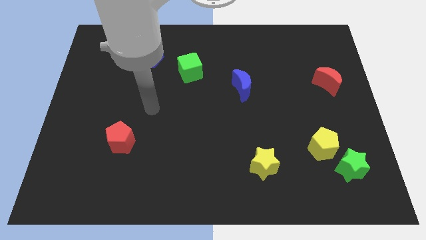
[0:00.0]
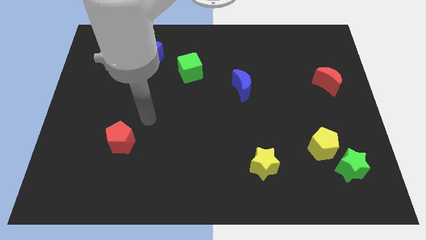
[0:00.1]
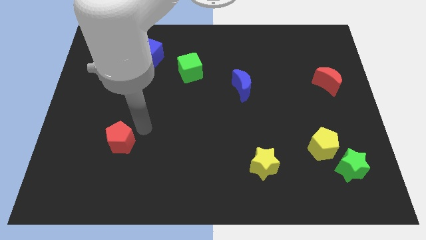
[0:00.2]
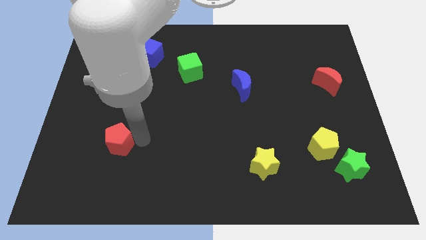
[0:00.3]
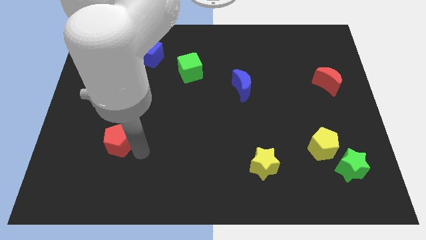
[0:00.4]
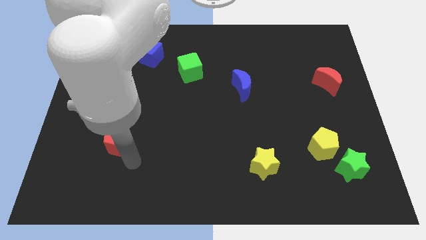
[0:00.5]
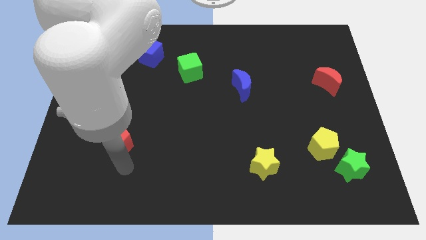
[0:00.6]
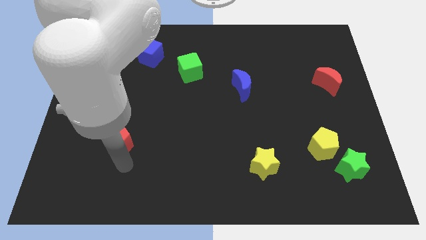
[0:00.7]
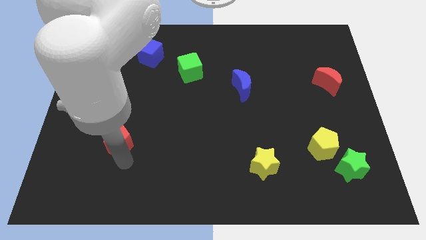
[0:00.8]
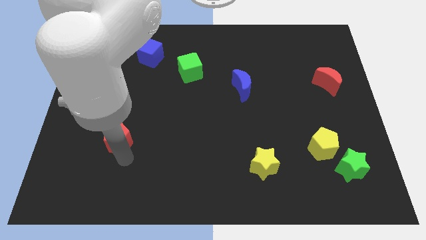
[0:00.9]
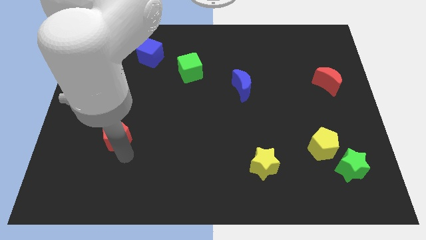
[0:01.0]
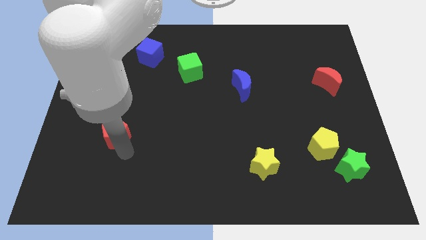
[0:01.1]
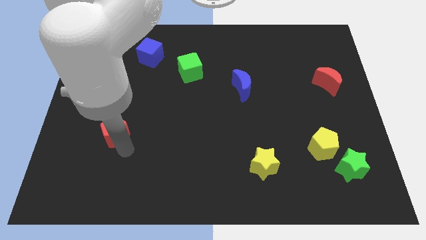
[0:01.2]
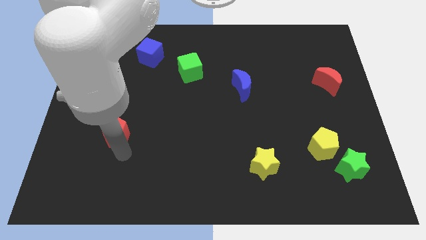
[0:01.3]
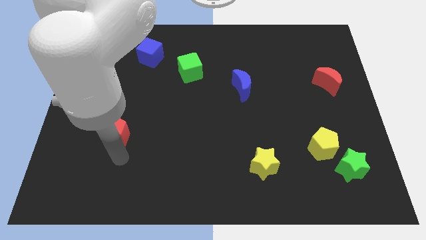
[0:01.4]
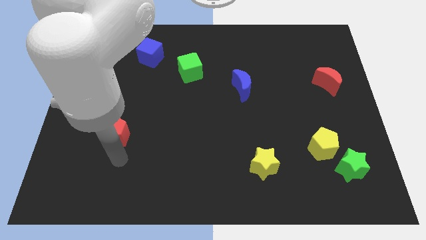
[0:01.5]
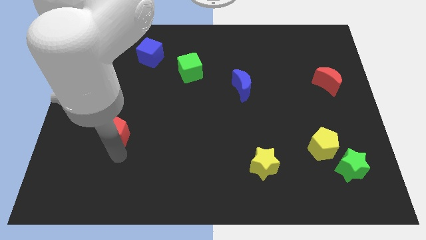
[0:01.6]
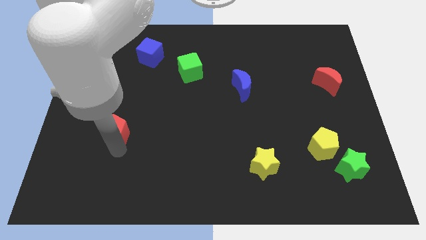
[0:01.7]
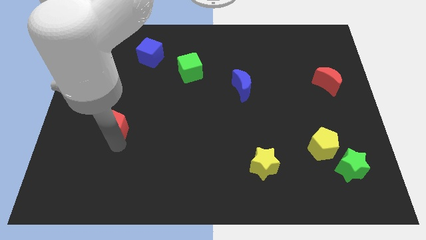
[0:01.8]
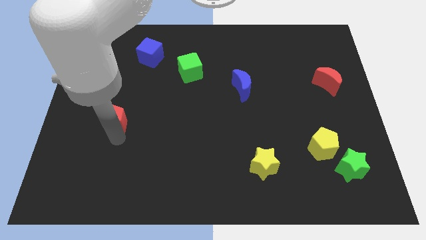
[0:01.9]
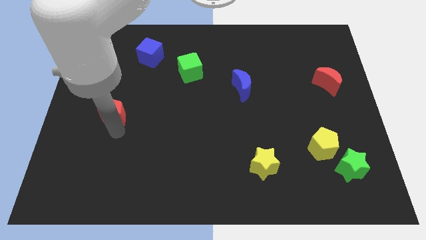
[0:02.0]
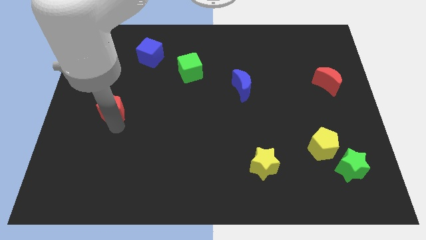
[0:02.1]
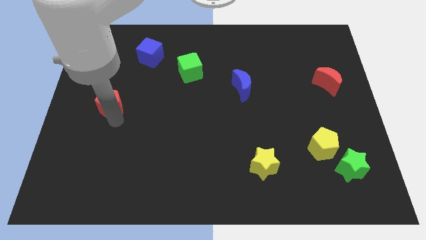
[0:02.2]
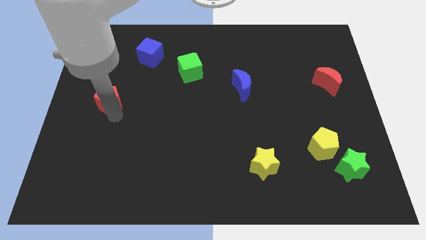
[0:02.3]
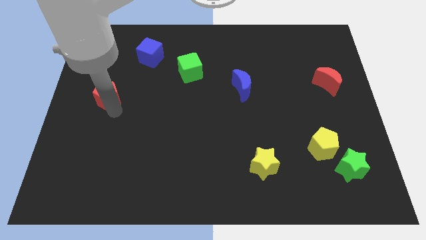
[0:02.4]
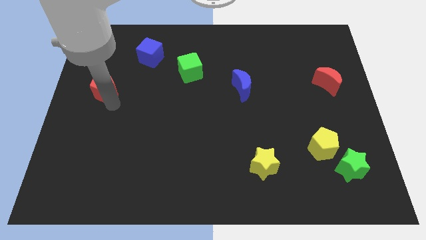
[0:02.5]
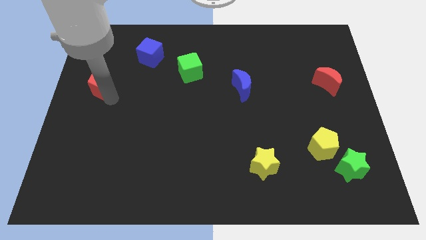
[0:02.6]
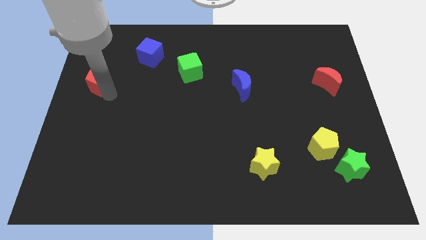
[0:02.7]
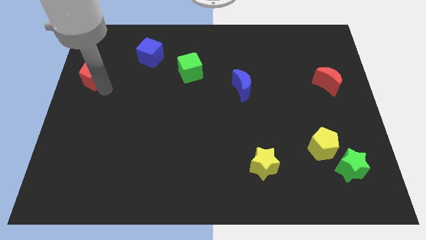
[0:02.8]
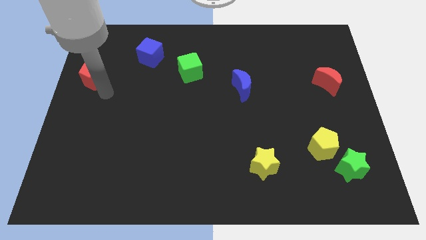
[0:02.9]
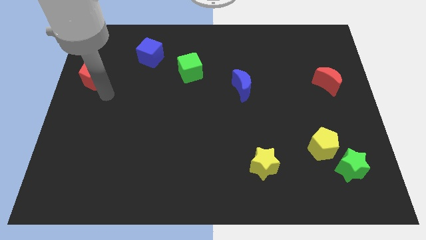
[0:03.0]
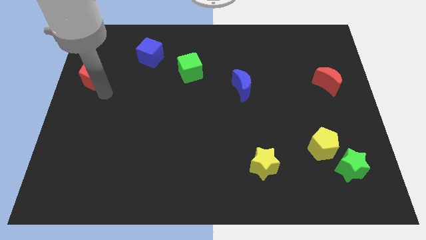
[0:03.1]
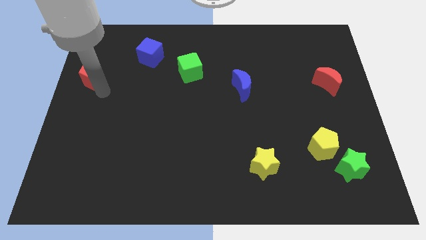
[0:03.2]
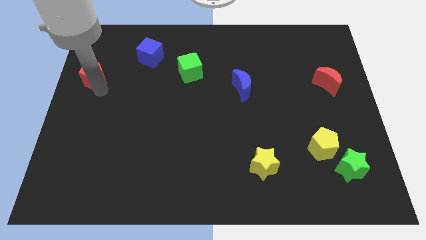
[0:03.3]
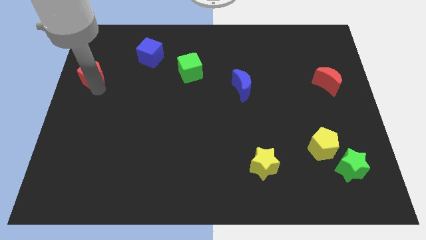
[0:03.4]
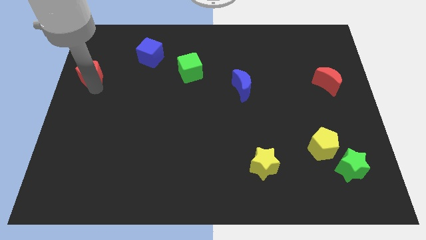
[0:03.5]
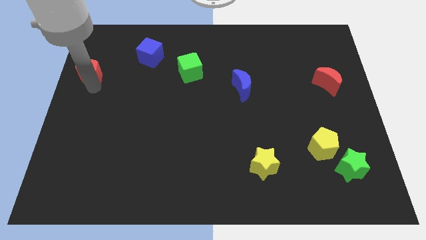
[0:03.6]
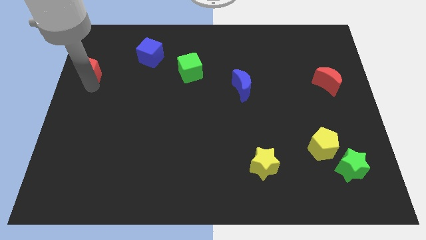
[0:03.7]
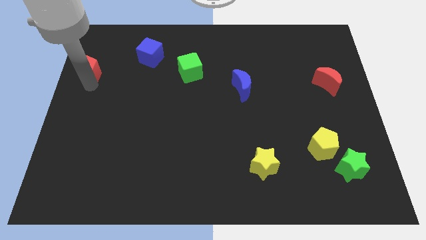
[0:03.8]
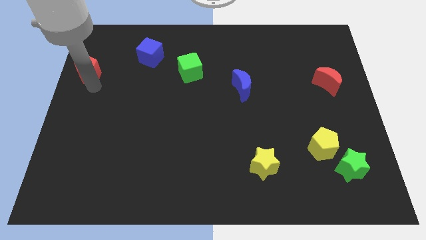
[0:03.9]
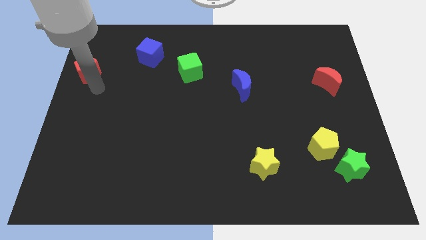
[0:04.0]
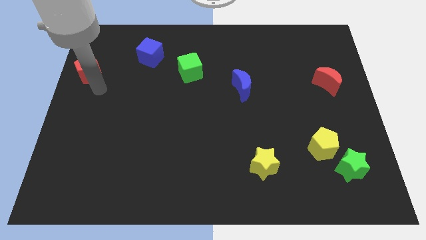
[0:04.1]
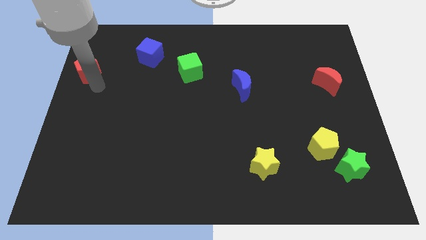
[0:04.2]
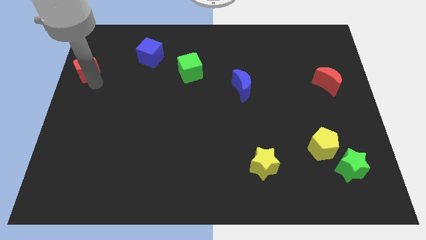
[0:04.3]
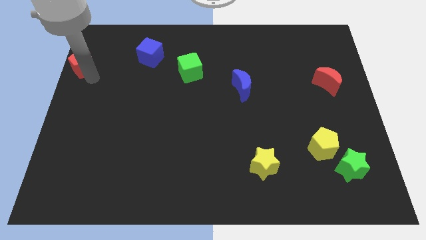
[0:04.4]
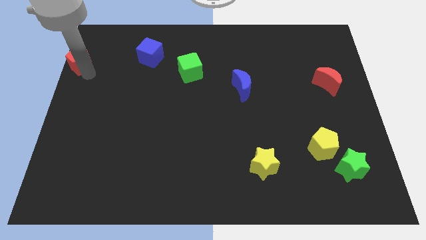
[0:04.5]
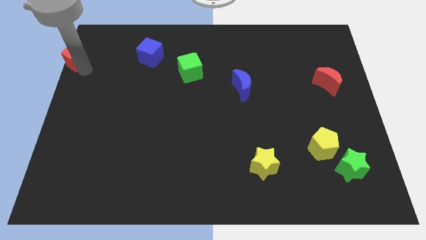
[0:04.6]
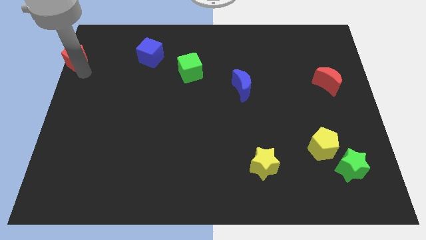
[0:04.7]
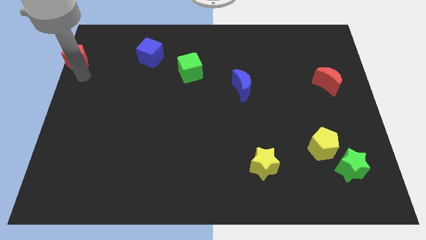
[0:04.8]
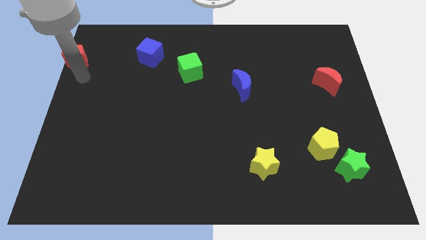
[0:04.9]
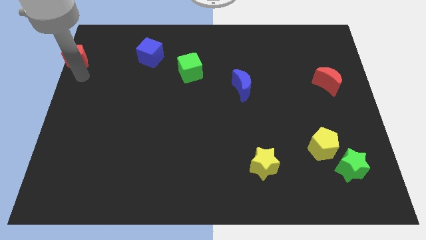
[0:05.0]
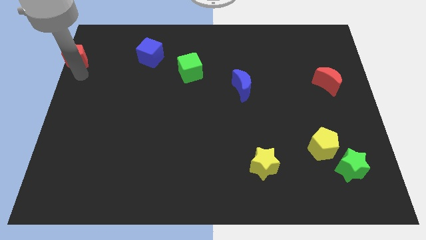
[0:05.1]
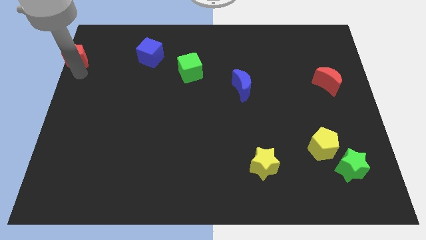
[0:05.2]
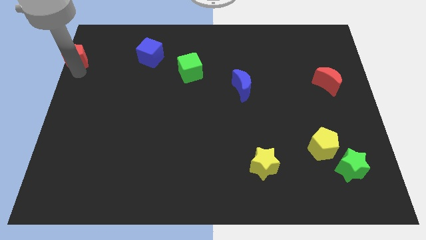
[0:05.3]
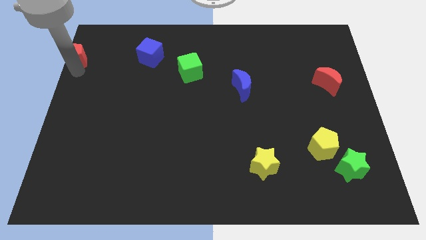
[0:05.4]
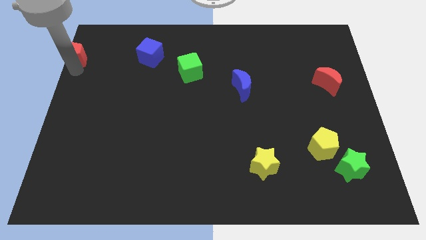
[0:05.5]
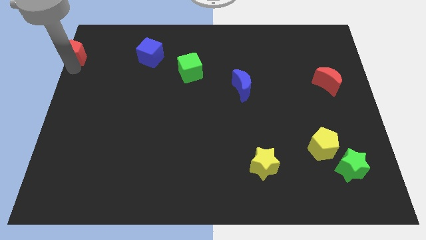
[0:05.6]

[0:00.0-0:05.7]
push the red pentagon to the upper left corner

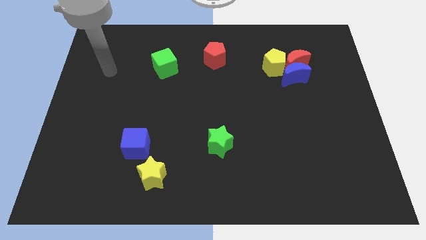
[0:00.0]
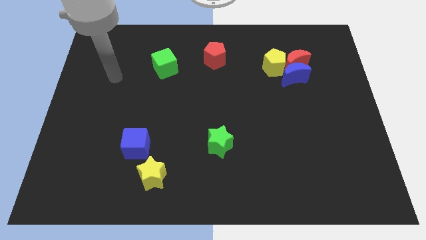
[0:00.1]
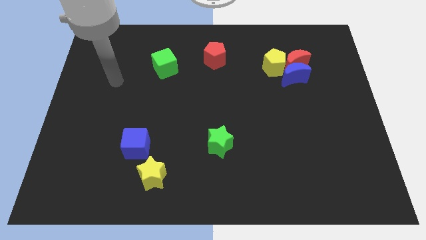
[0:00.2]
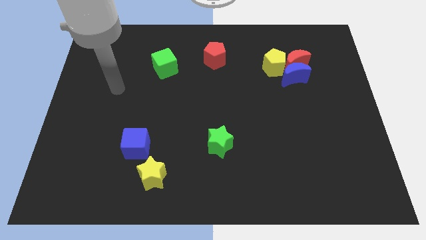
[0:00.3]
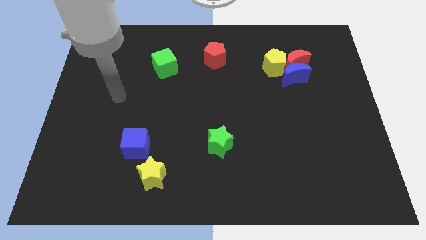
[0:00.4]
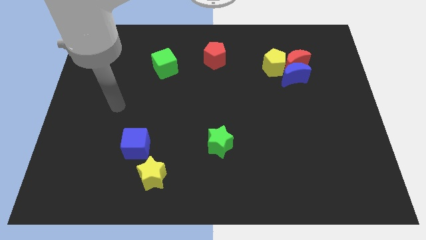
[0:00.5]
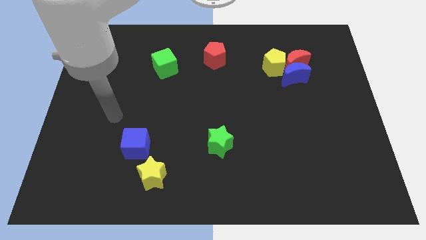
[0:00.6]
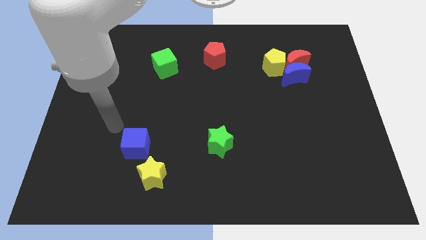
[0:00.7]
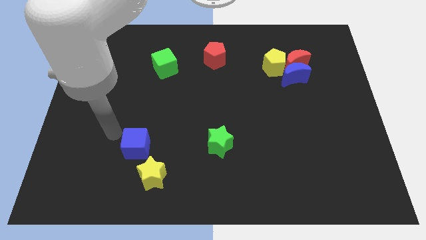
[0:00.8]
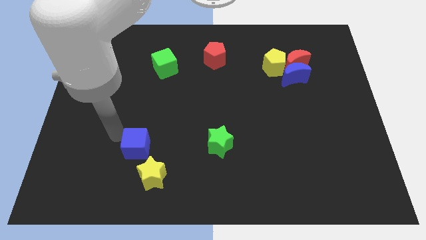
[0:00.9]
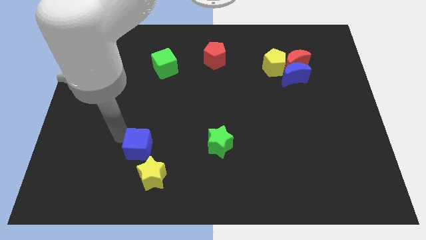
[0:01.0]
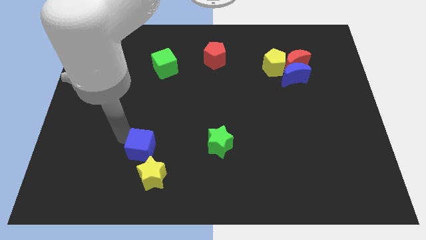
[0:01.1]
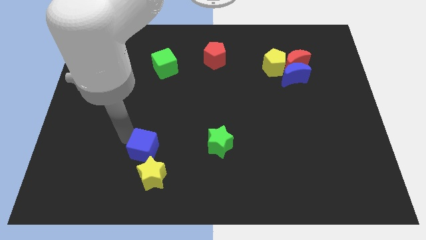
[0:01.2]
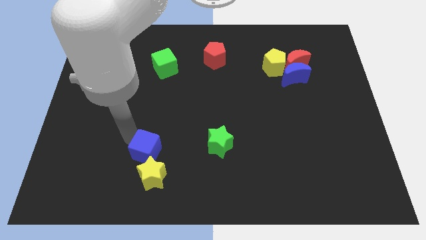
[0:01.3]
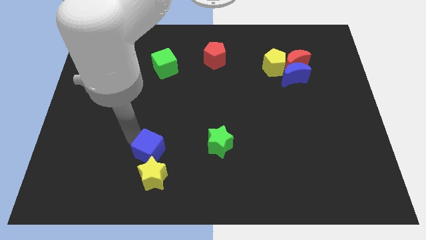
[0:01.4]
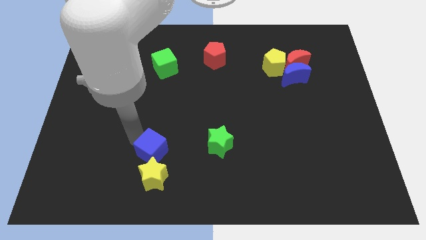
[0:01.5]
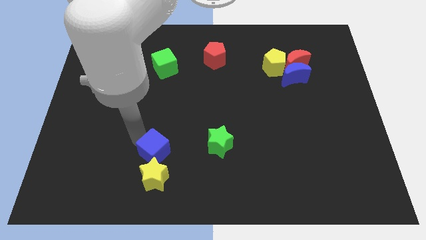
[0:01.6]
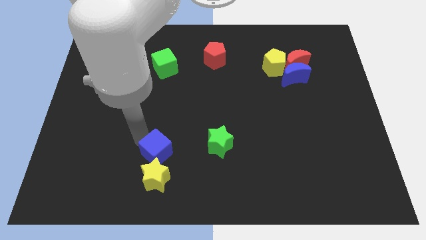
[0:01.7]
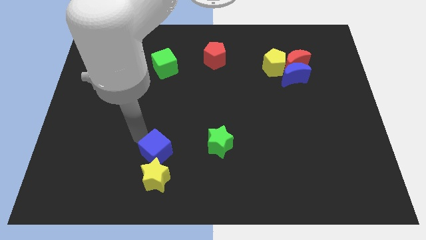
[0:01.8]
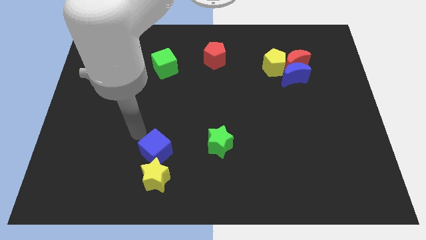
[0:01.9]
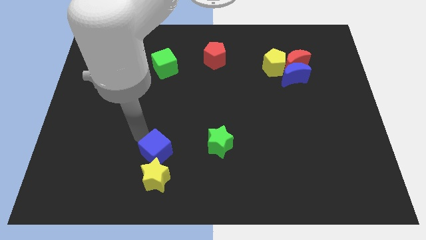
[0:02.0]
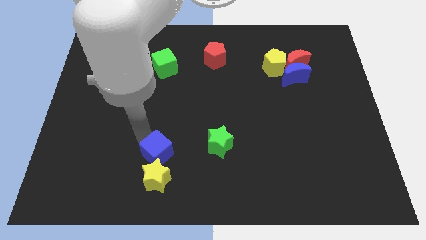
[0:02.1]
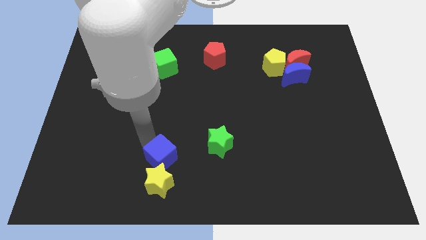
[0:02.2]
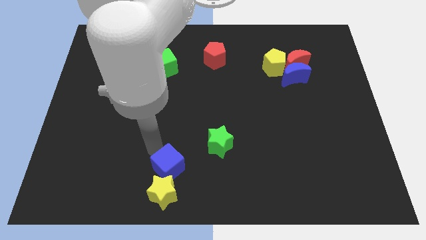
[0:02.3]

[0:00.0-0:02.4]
move the blue cube to the bottom side
